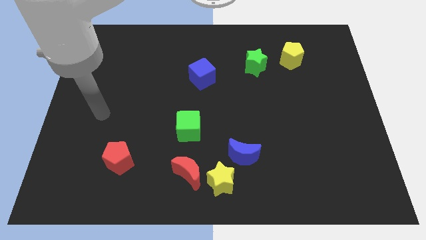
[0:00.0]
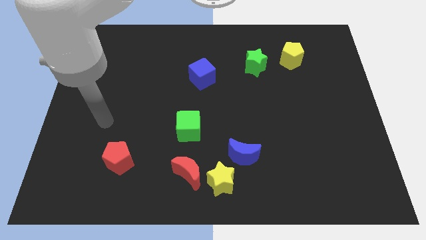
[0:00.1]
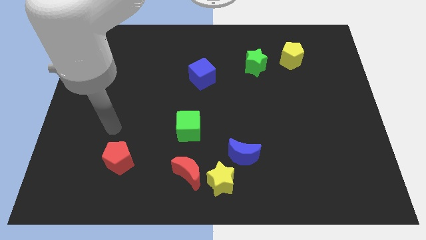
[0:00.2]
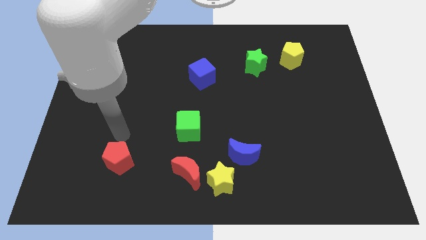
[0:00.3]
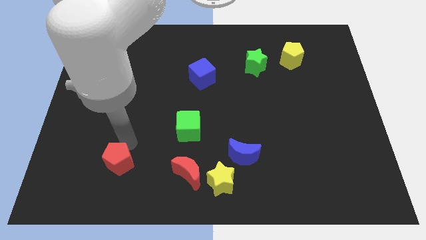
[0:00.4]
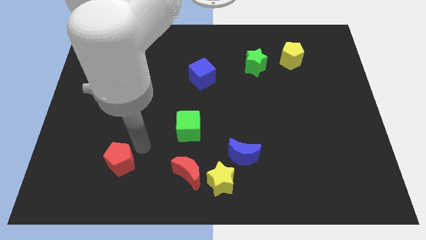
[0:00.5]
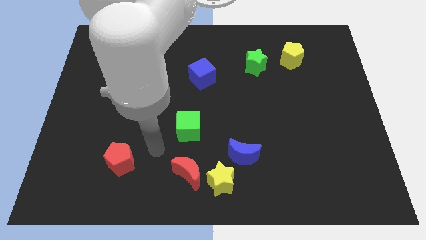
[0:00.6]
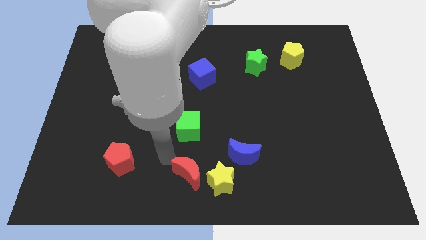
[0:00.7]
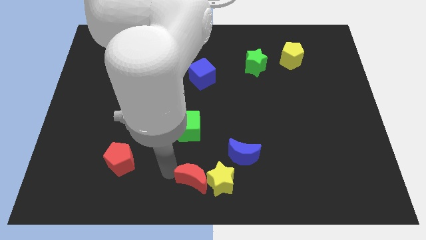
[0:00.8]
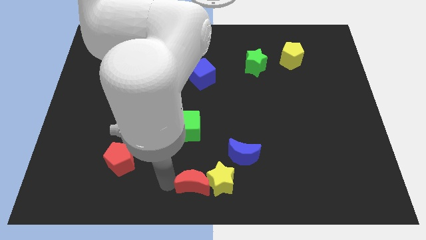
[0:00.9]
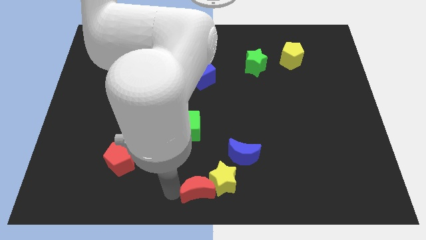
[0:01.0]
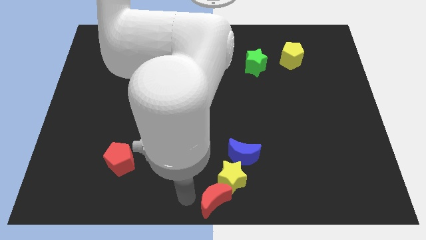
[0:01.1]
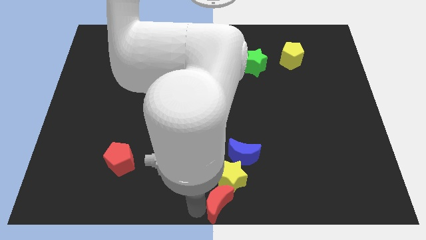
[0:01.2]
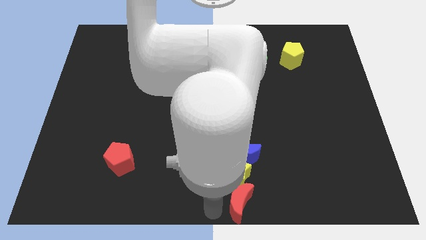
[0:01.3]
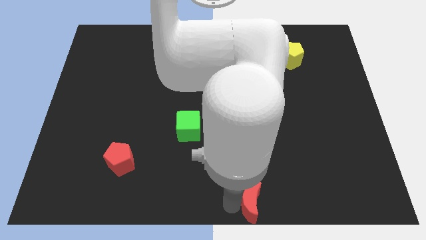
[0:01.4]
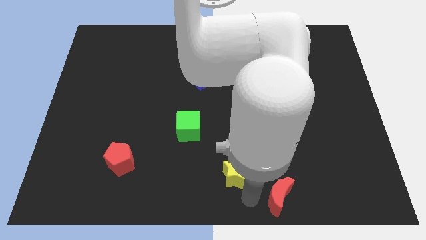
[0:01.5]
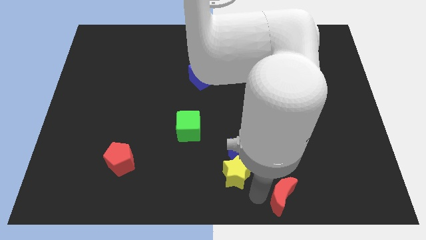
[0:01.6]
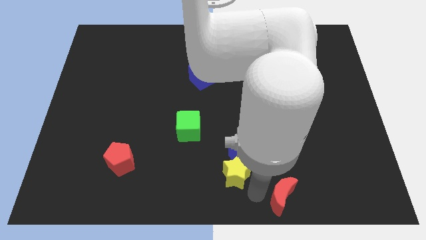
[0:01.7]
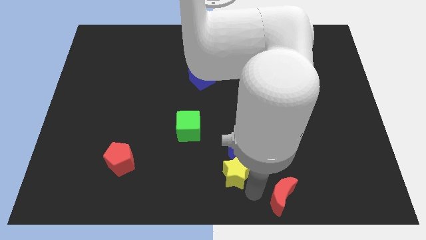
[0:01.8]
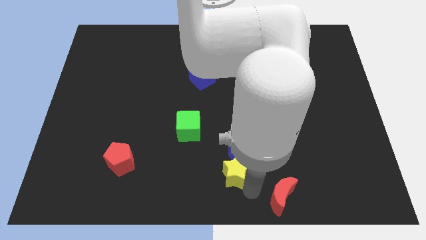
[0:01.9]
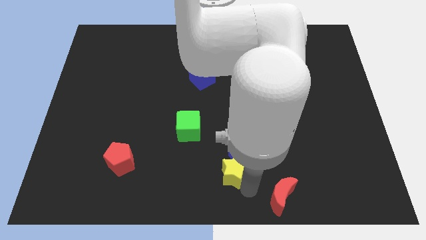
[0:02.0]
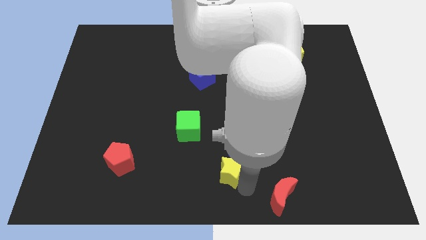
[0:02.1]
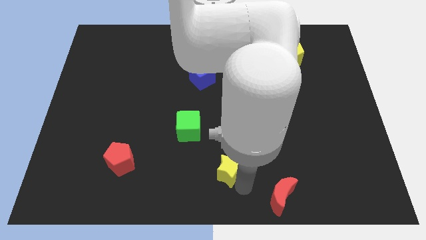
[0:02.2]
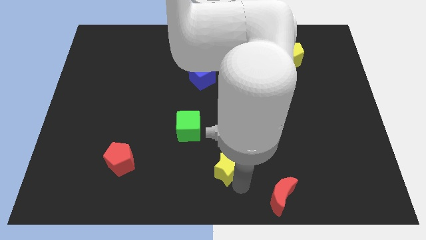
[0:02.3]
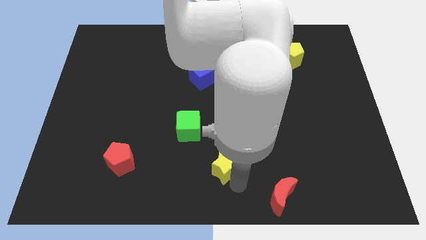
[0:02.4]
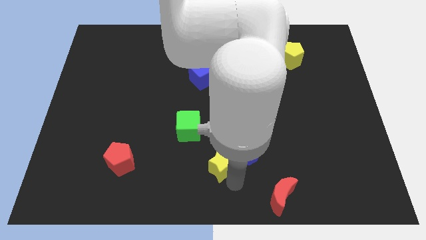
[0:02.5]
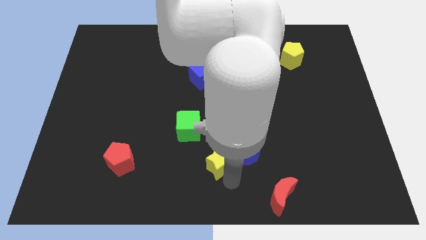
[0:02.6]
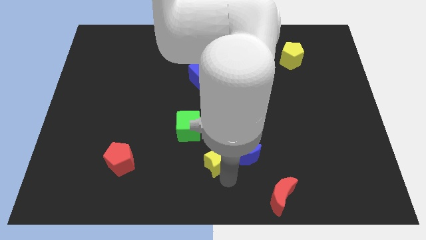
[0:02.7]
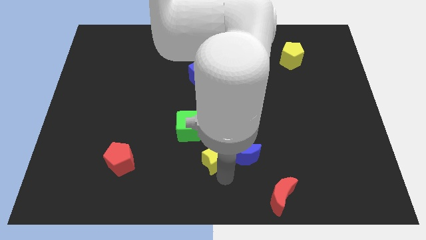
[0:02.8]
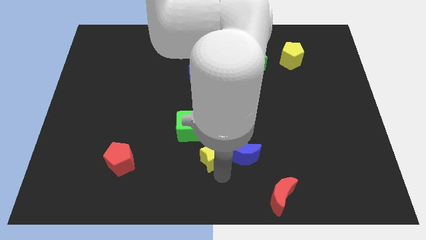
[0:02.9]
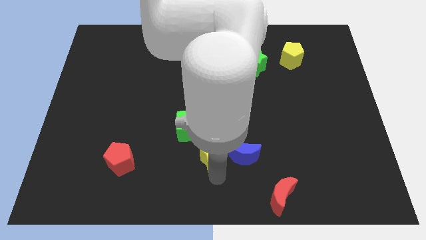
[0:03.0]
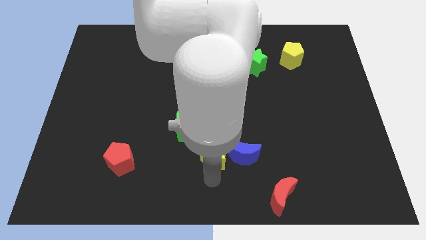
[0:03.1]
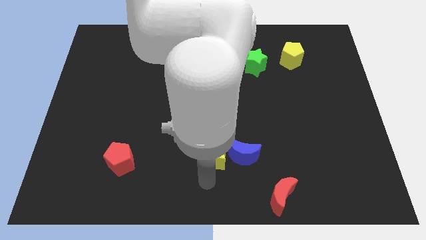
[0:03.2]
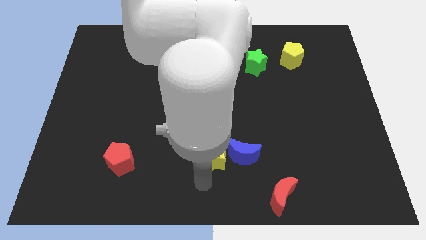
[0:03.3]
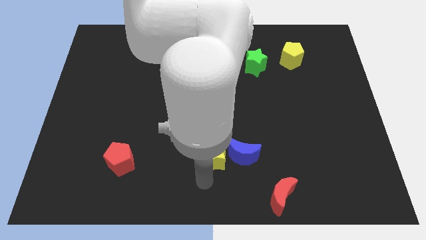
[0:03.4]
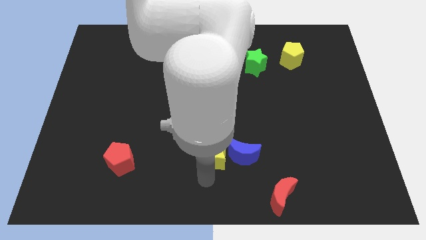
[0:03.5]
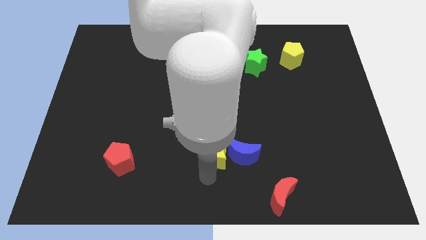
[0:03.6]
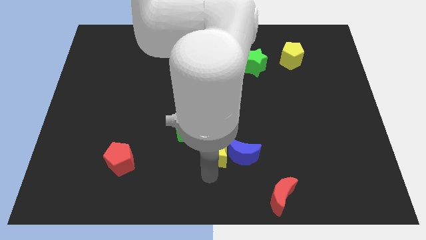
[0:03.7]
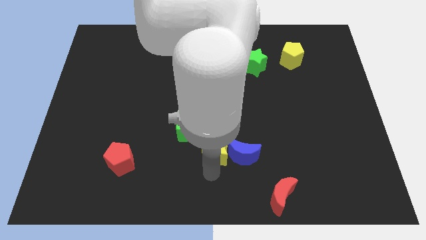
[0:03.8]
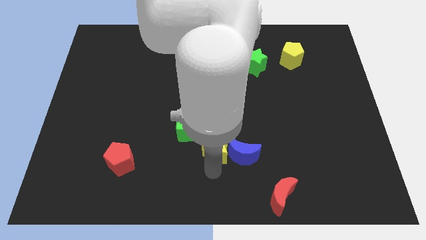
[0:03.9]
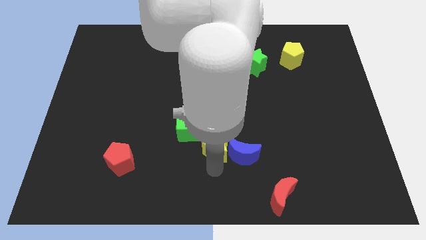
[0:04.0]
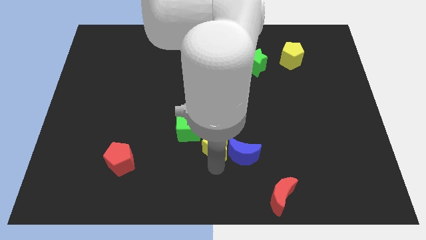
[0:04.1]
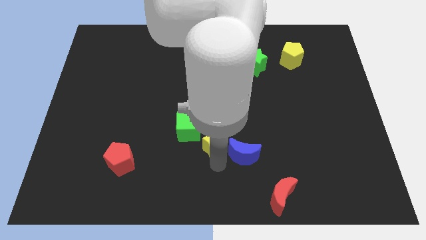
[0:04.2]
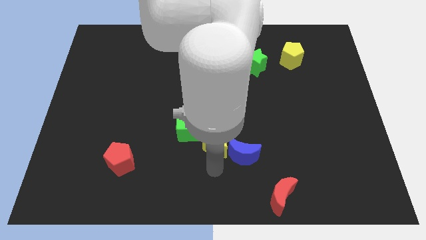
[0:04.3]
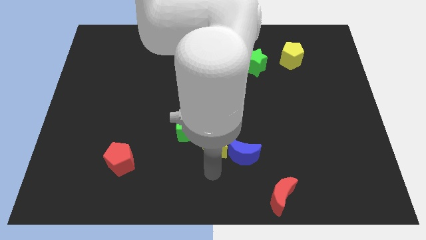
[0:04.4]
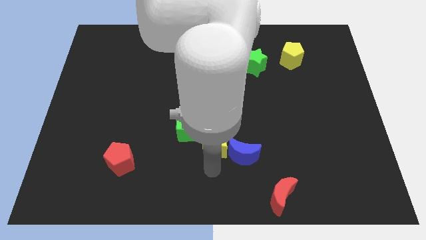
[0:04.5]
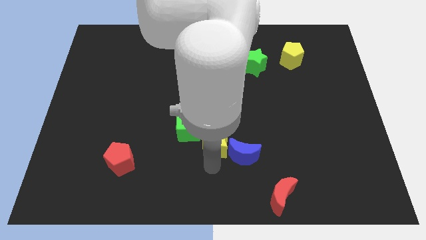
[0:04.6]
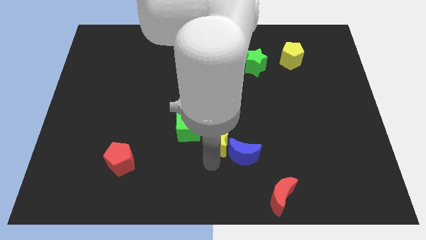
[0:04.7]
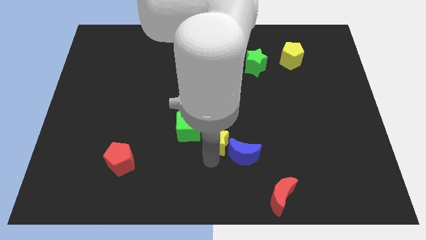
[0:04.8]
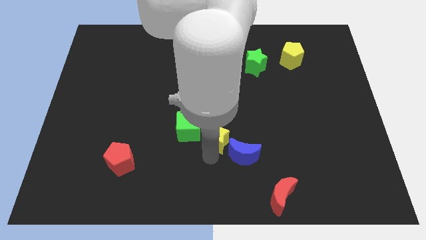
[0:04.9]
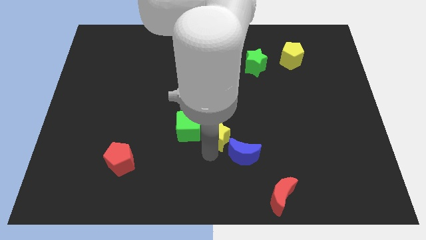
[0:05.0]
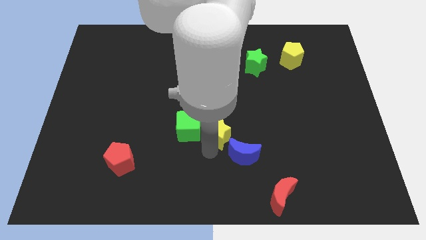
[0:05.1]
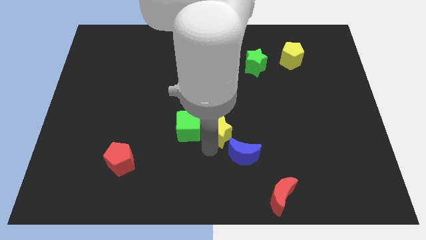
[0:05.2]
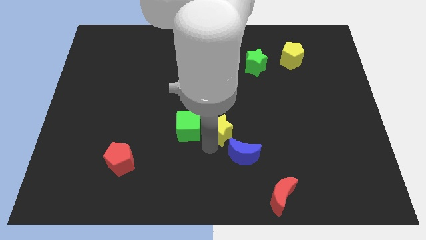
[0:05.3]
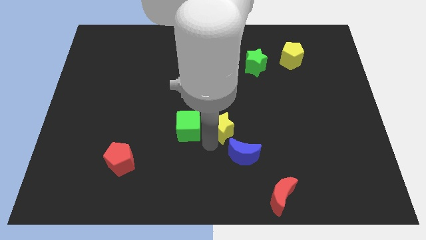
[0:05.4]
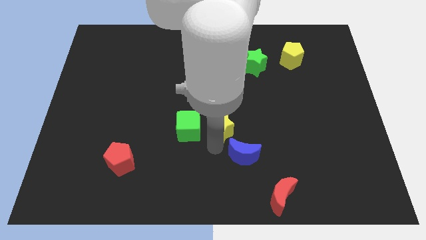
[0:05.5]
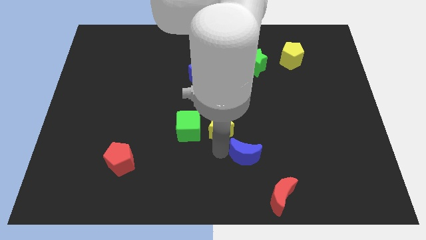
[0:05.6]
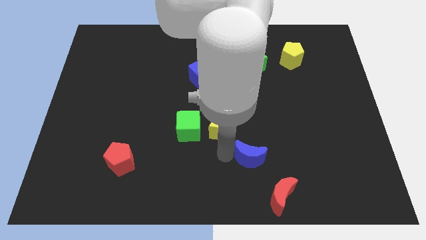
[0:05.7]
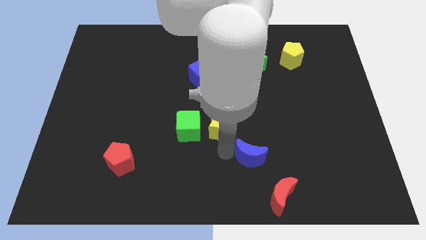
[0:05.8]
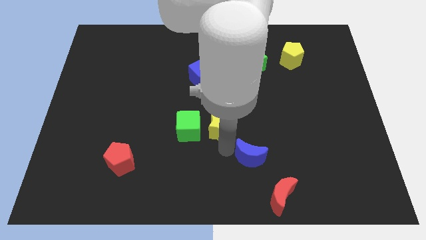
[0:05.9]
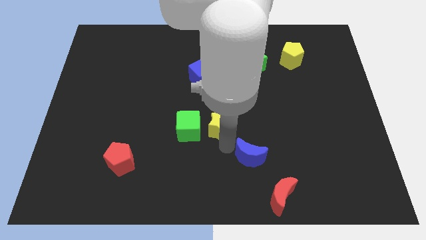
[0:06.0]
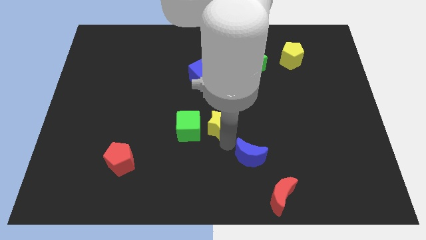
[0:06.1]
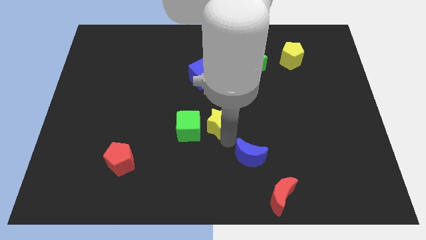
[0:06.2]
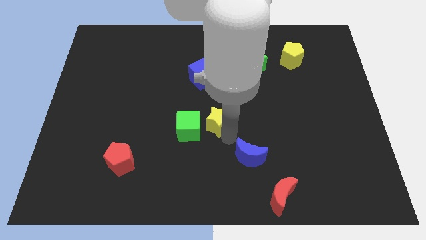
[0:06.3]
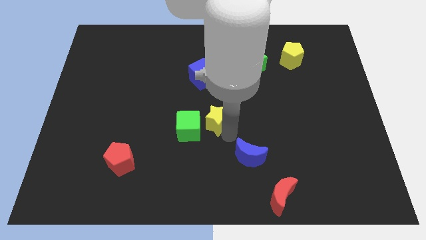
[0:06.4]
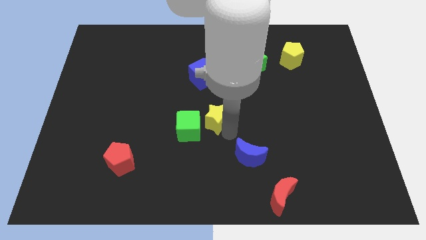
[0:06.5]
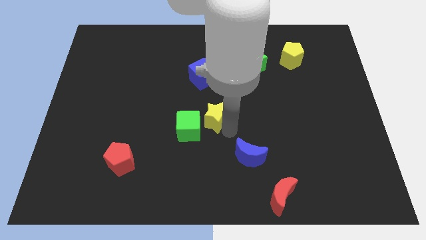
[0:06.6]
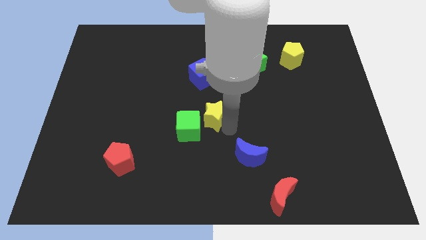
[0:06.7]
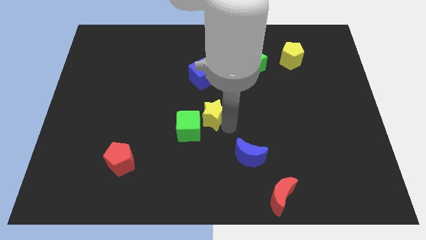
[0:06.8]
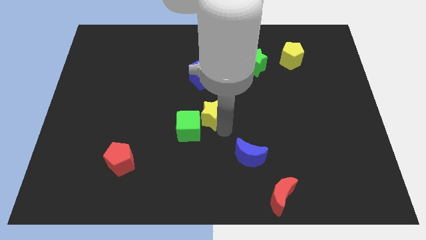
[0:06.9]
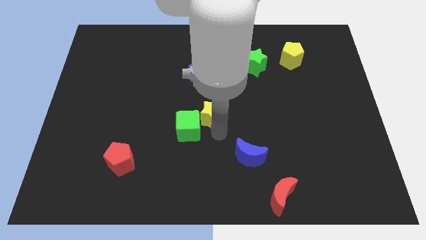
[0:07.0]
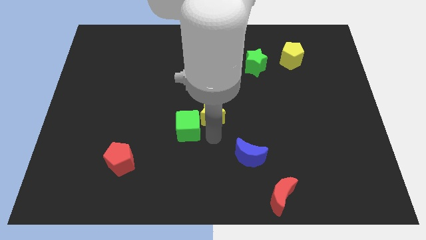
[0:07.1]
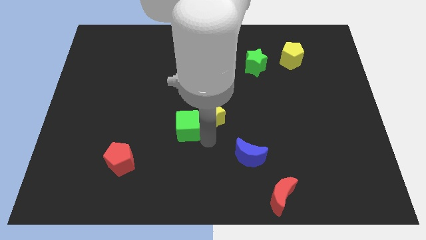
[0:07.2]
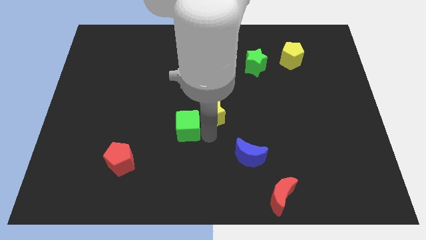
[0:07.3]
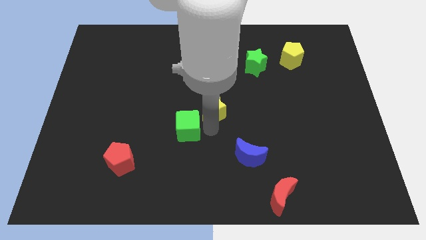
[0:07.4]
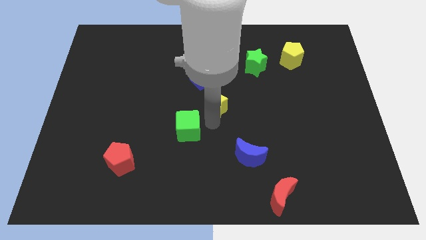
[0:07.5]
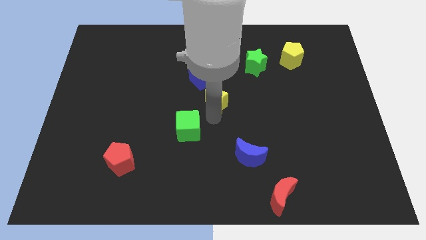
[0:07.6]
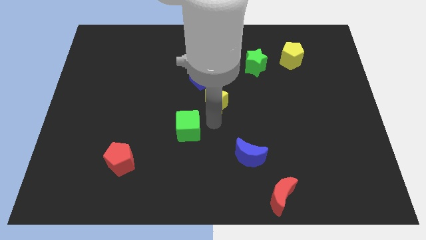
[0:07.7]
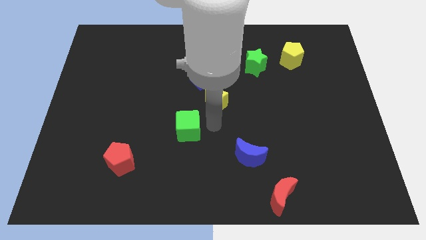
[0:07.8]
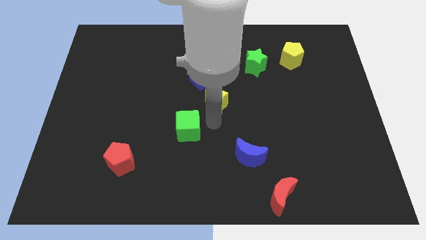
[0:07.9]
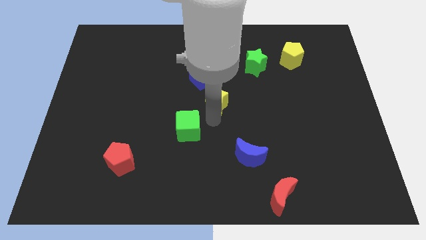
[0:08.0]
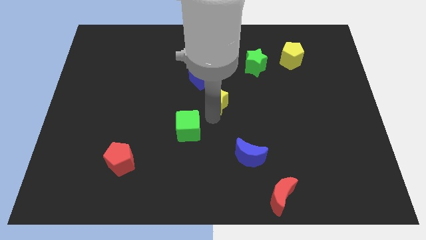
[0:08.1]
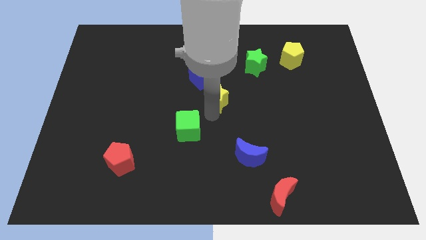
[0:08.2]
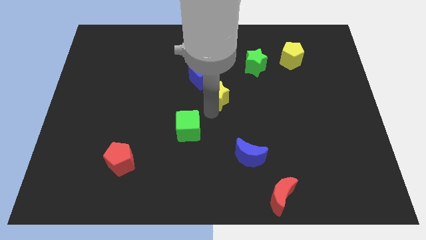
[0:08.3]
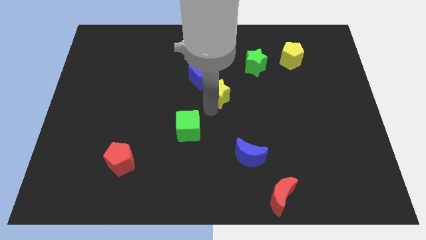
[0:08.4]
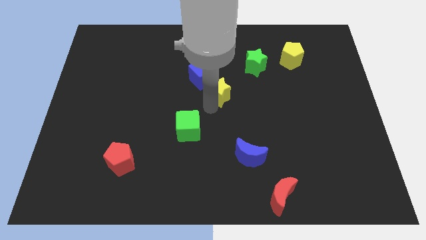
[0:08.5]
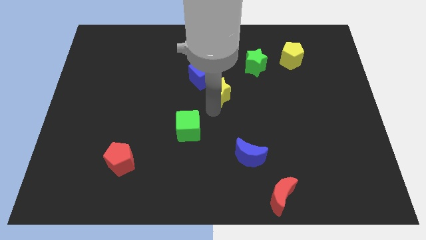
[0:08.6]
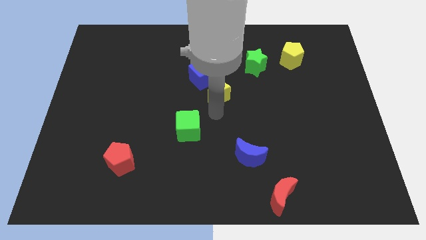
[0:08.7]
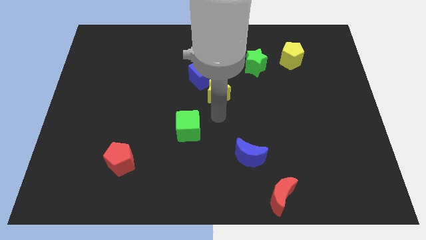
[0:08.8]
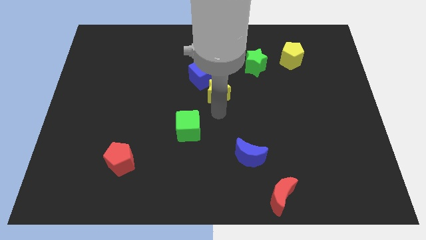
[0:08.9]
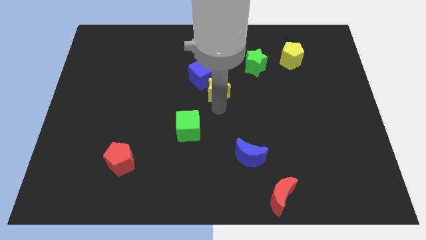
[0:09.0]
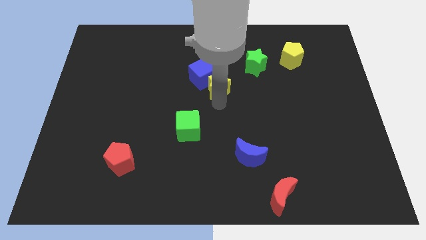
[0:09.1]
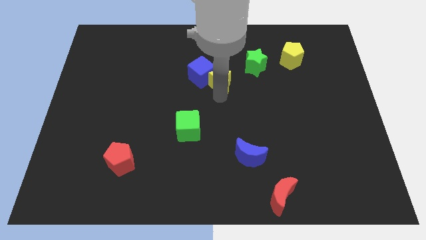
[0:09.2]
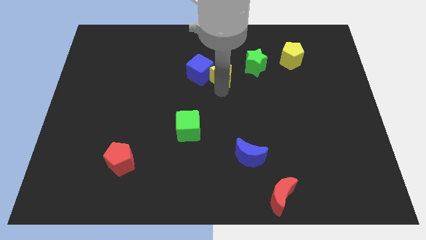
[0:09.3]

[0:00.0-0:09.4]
put the yellow star to the left side of the green star
